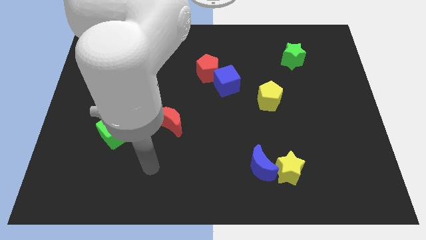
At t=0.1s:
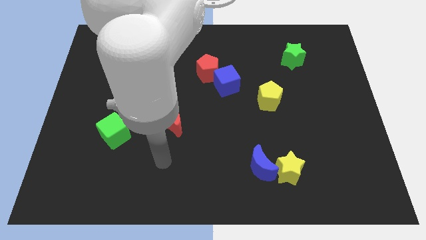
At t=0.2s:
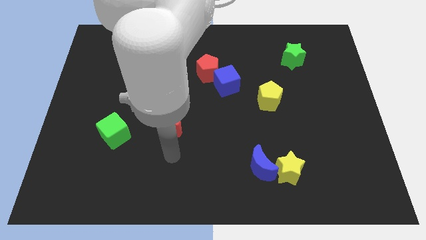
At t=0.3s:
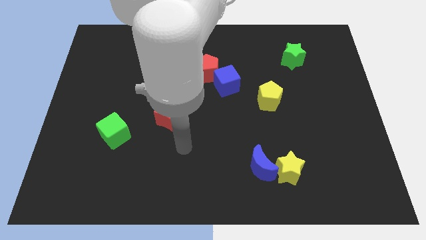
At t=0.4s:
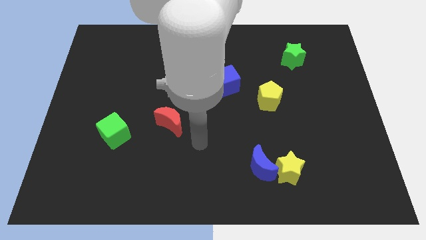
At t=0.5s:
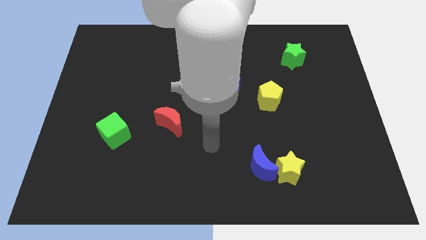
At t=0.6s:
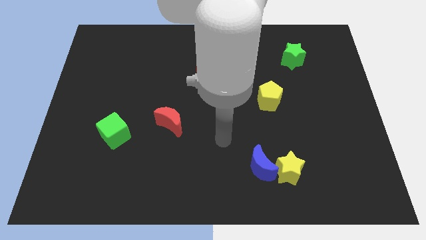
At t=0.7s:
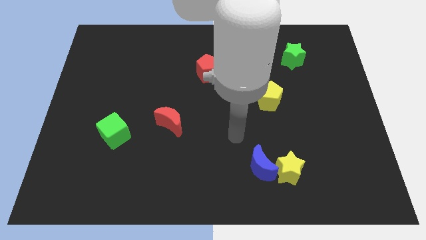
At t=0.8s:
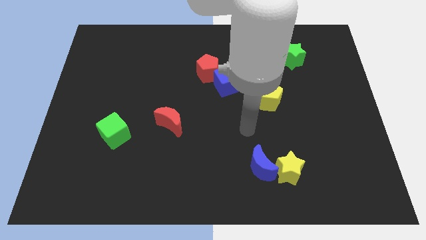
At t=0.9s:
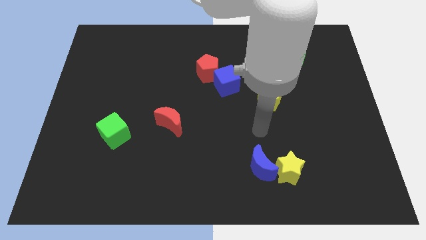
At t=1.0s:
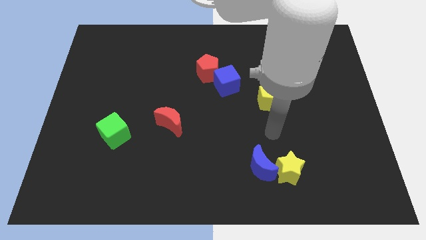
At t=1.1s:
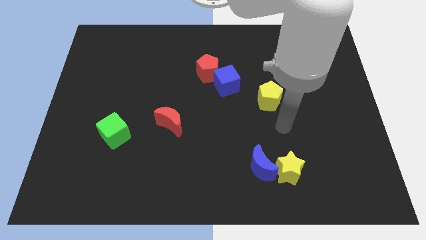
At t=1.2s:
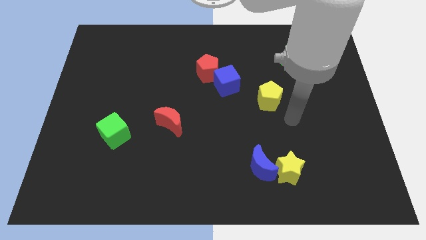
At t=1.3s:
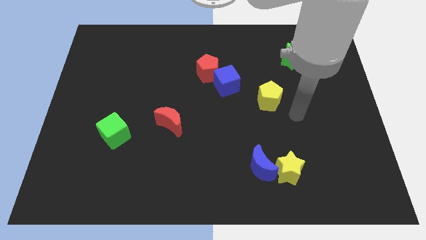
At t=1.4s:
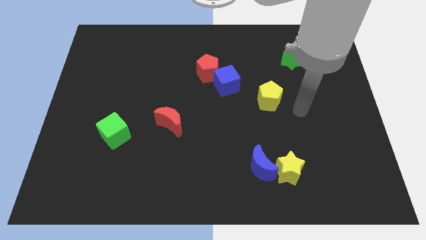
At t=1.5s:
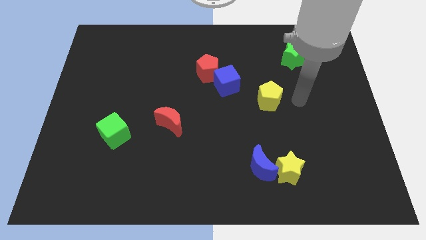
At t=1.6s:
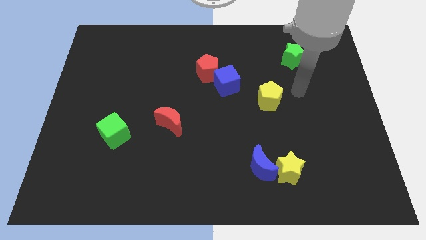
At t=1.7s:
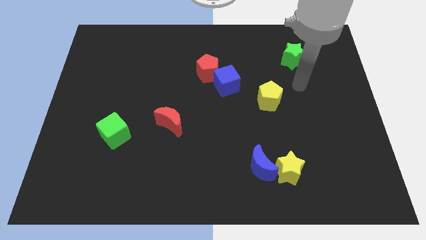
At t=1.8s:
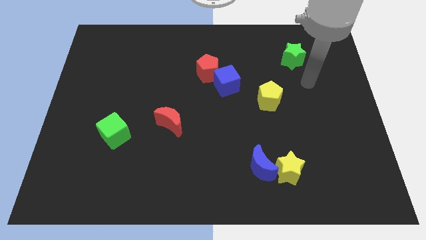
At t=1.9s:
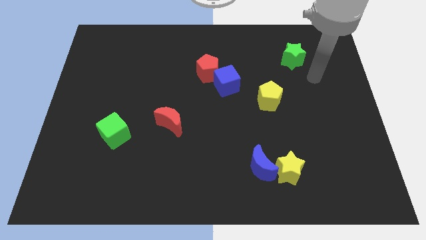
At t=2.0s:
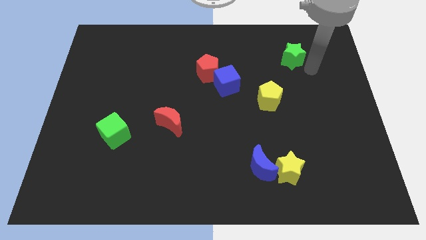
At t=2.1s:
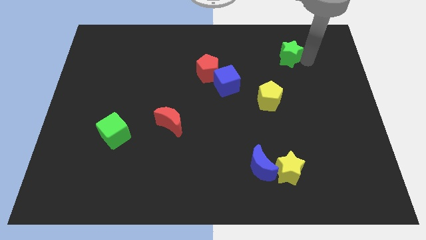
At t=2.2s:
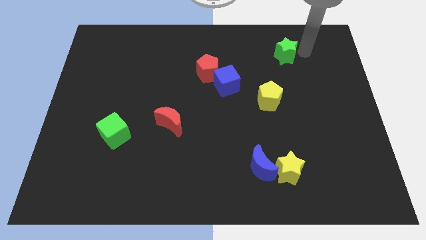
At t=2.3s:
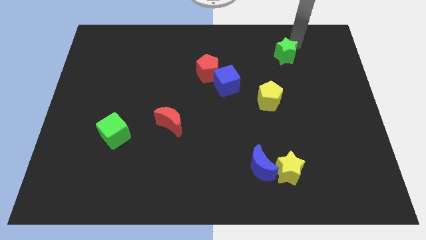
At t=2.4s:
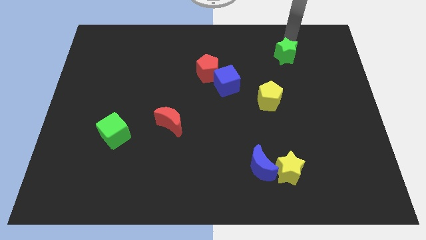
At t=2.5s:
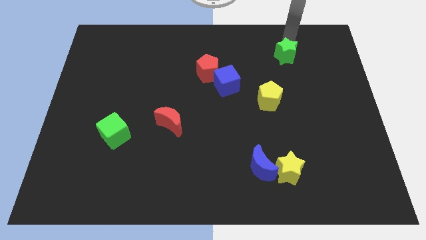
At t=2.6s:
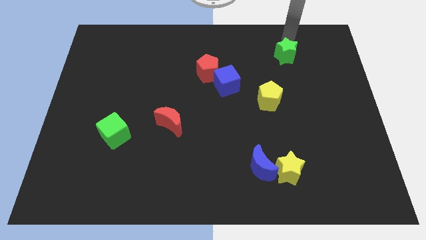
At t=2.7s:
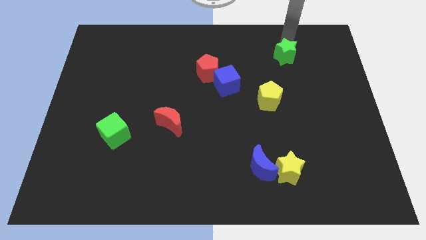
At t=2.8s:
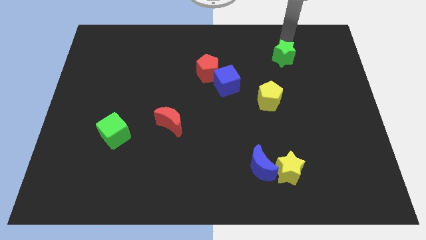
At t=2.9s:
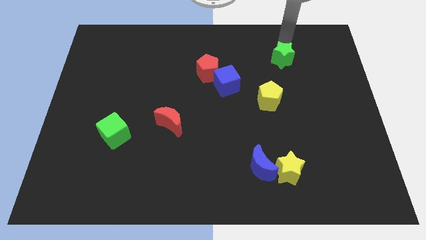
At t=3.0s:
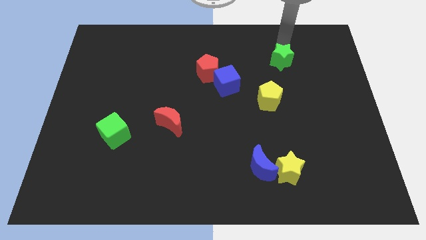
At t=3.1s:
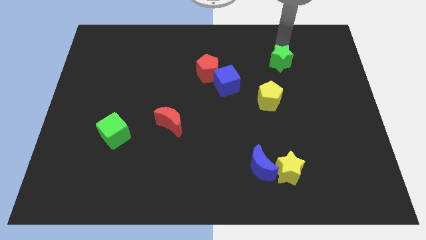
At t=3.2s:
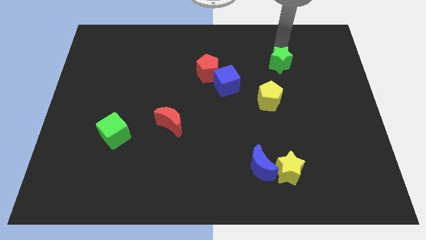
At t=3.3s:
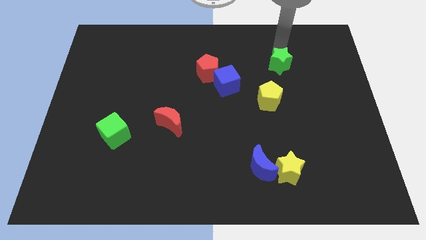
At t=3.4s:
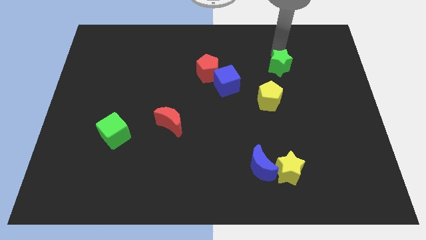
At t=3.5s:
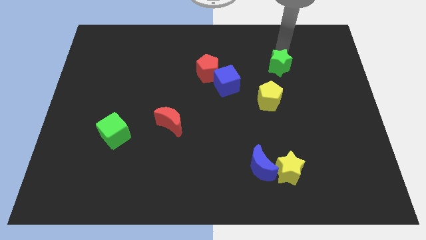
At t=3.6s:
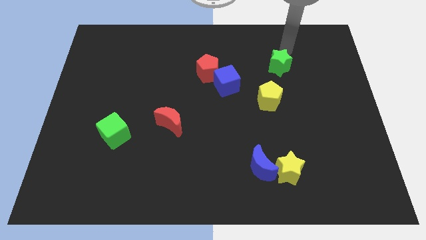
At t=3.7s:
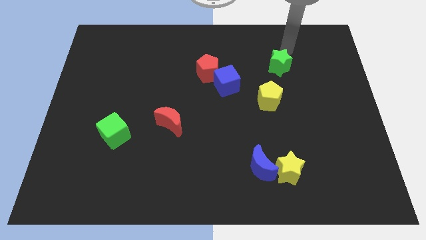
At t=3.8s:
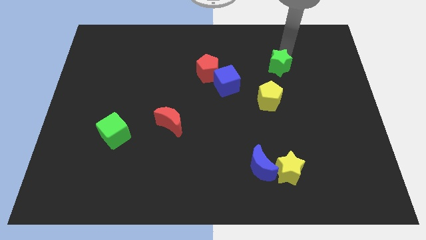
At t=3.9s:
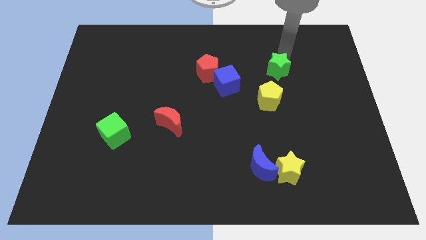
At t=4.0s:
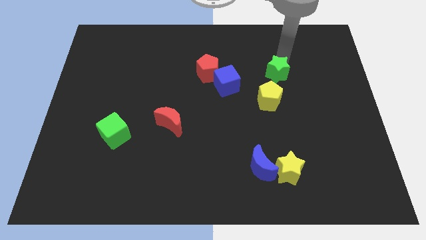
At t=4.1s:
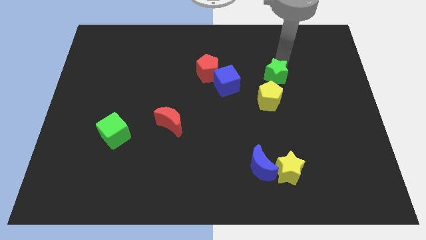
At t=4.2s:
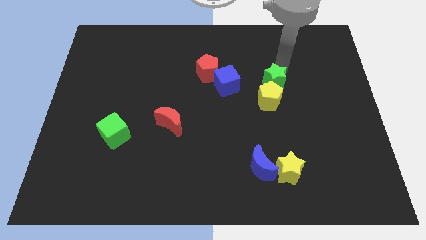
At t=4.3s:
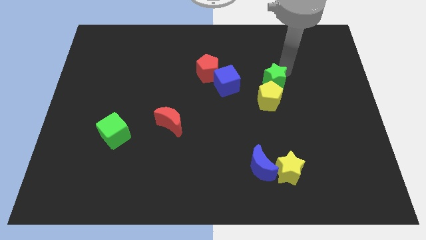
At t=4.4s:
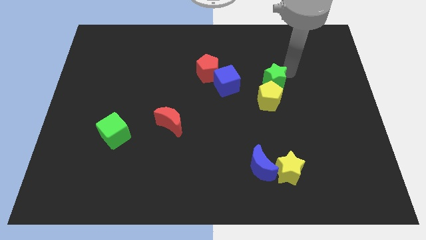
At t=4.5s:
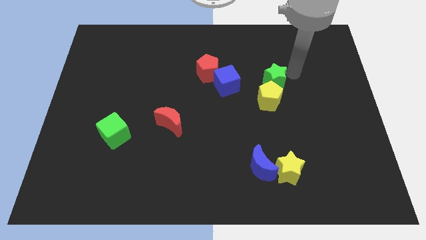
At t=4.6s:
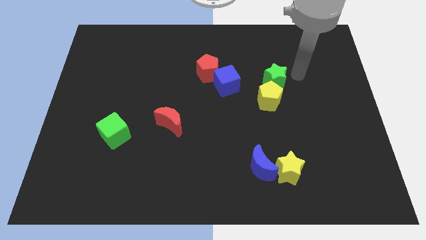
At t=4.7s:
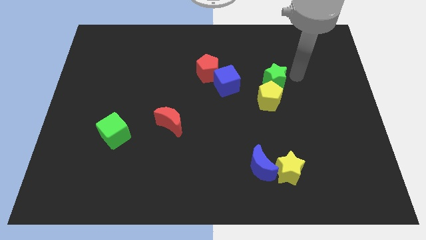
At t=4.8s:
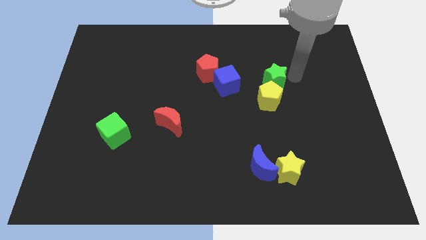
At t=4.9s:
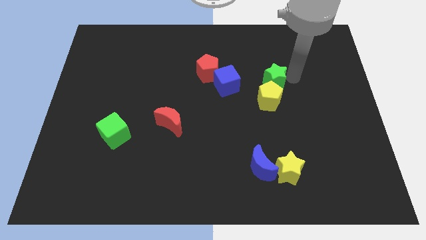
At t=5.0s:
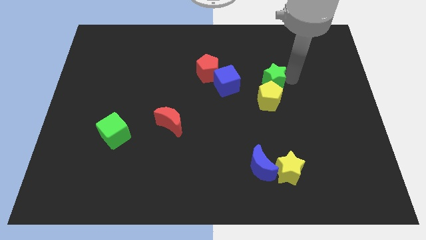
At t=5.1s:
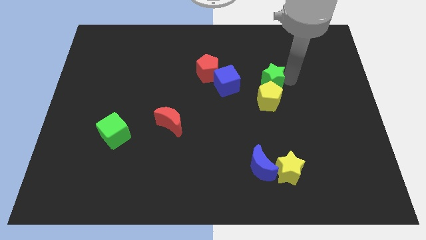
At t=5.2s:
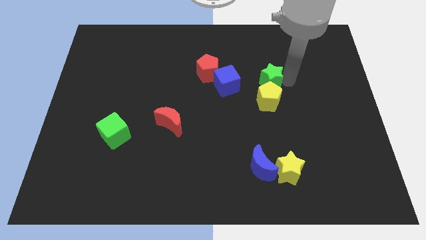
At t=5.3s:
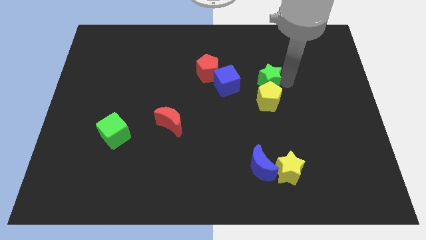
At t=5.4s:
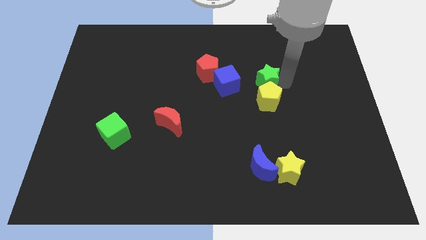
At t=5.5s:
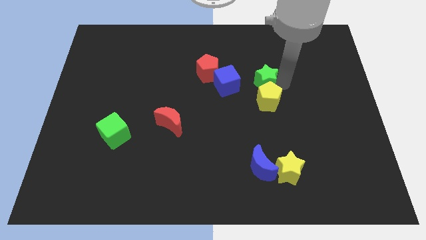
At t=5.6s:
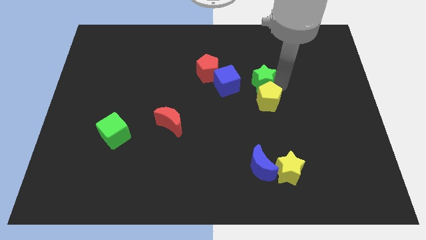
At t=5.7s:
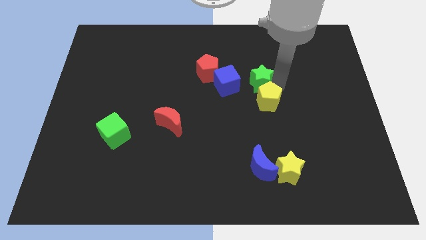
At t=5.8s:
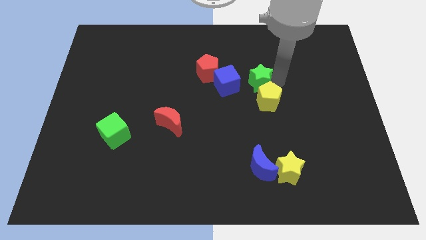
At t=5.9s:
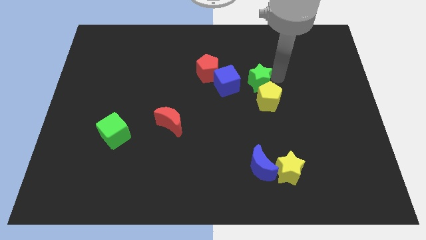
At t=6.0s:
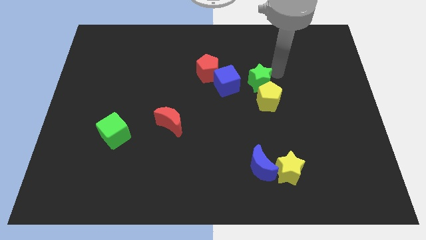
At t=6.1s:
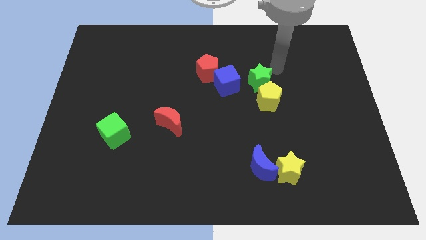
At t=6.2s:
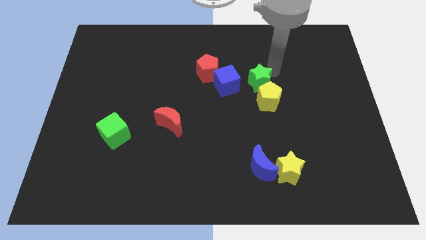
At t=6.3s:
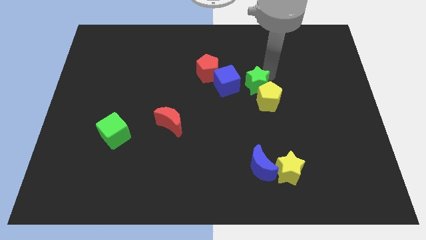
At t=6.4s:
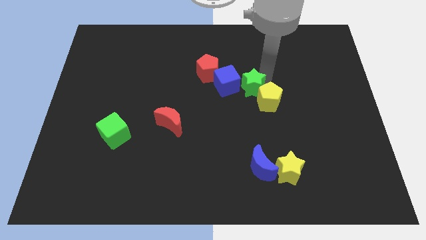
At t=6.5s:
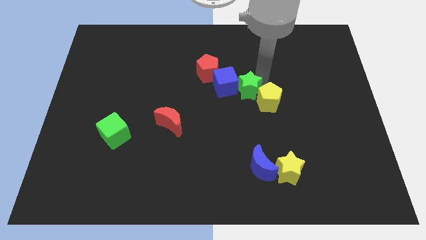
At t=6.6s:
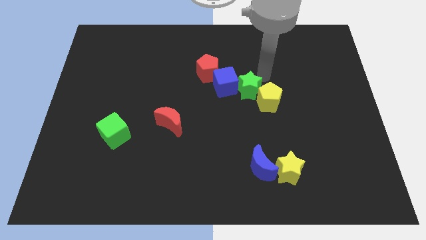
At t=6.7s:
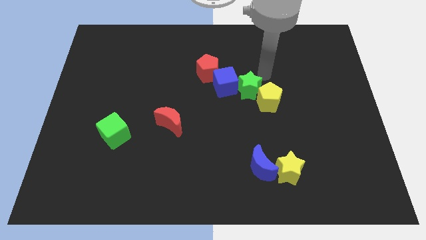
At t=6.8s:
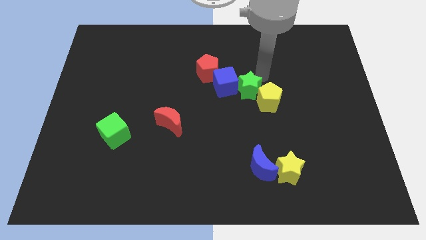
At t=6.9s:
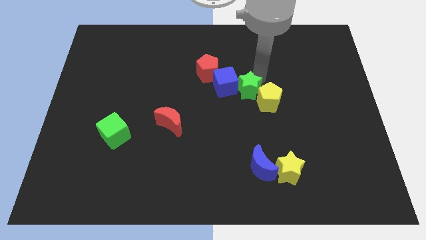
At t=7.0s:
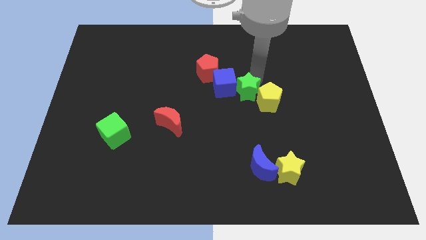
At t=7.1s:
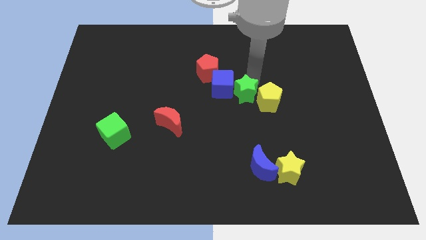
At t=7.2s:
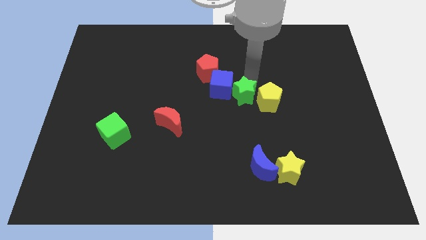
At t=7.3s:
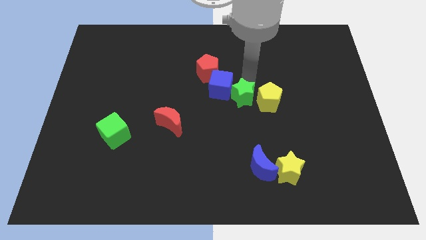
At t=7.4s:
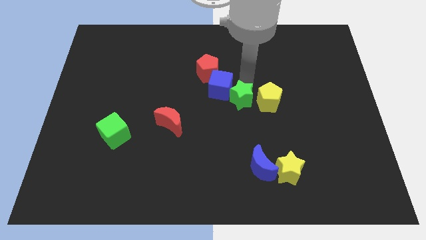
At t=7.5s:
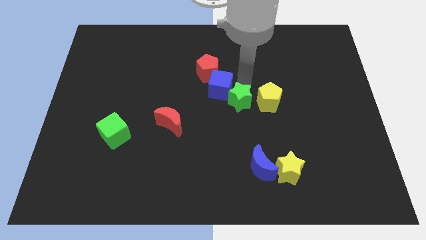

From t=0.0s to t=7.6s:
slide the green star downwards and to the left

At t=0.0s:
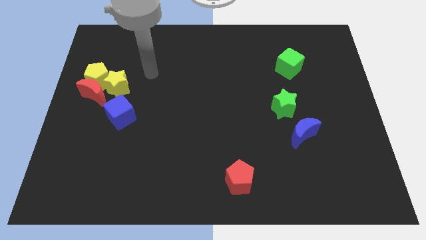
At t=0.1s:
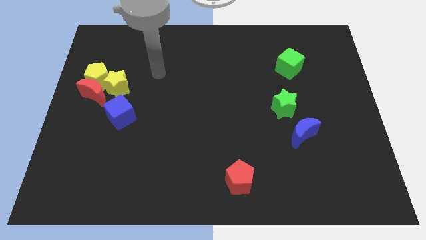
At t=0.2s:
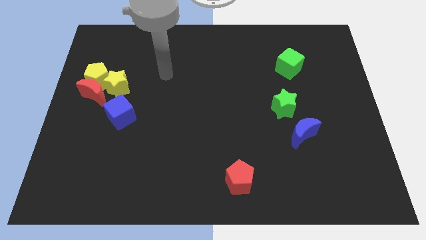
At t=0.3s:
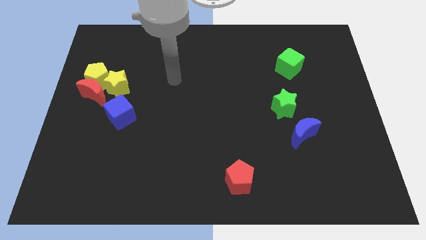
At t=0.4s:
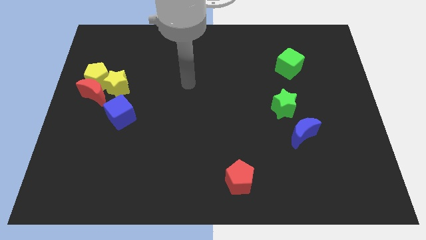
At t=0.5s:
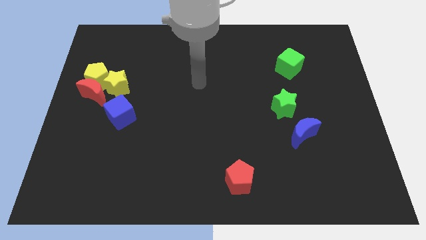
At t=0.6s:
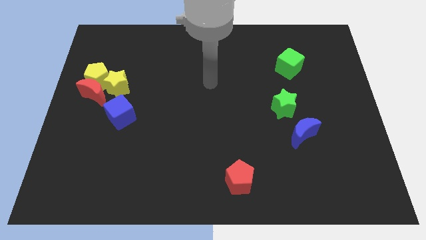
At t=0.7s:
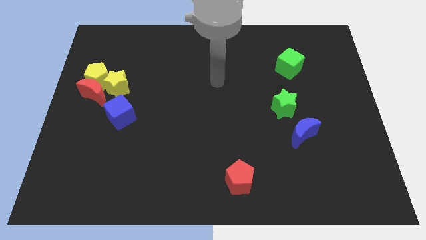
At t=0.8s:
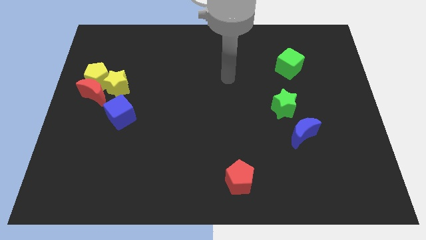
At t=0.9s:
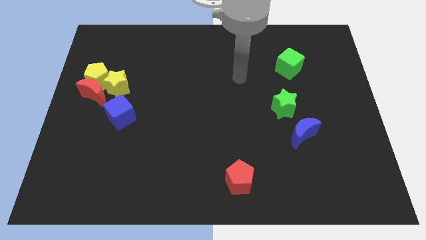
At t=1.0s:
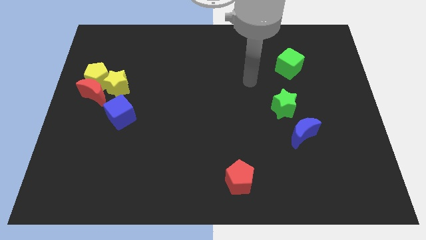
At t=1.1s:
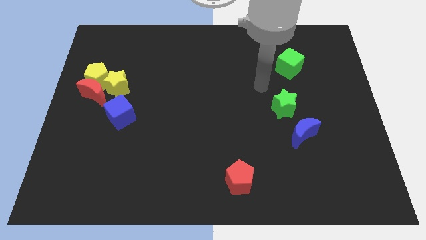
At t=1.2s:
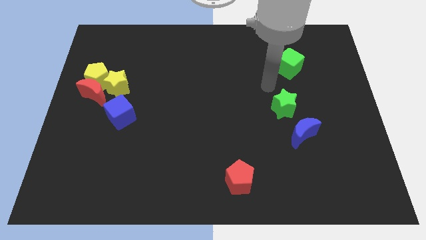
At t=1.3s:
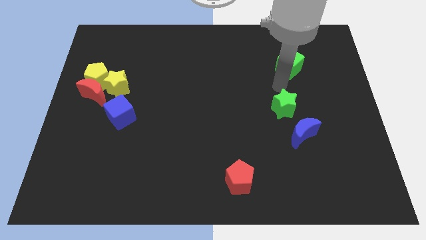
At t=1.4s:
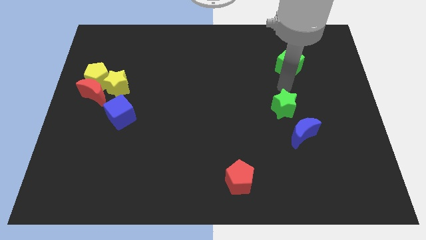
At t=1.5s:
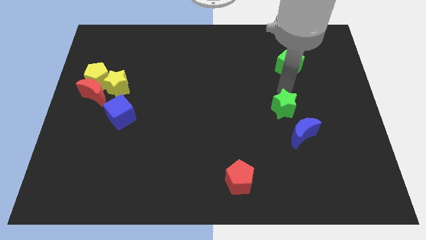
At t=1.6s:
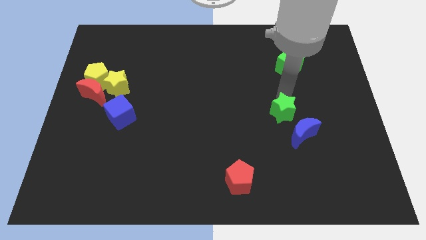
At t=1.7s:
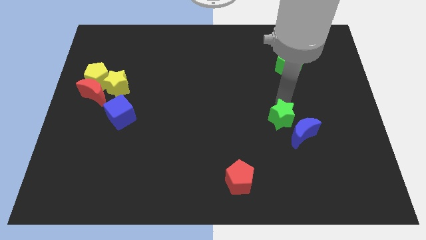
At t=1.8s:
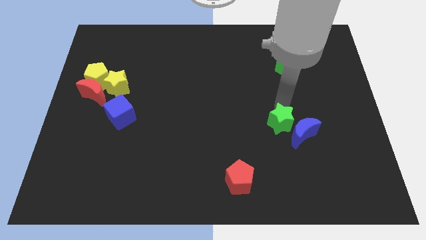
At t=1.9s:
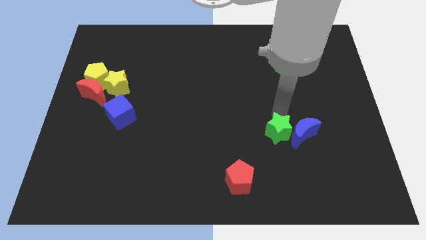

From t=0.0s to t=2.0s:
slide the green star a bit down
